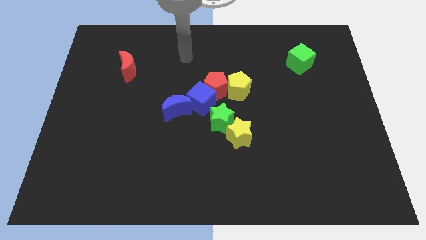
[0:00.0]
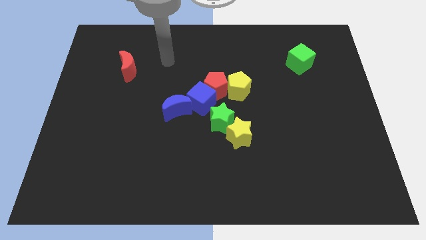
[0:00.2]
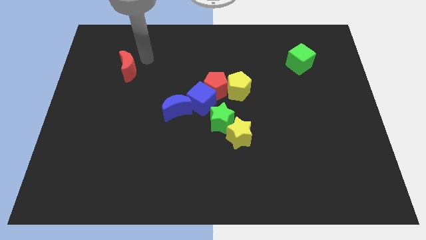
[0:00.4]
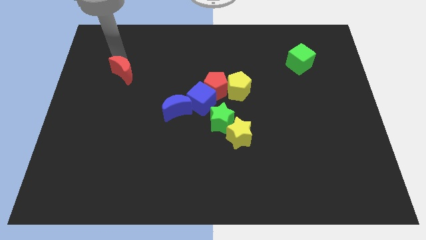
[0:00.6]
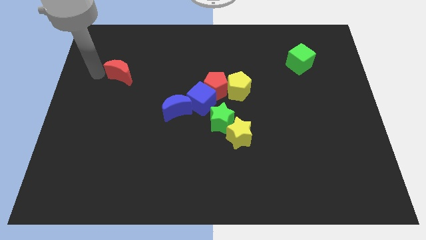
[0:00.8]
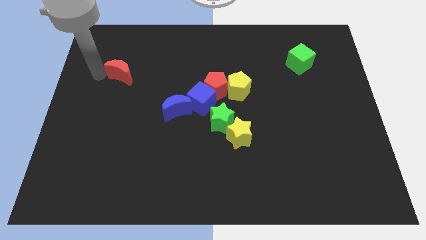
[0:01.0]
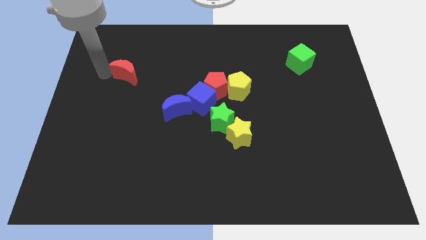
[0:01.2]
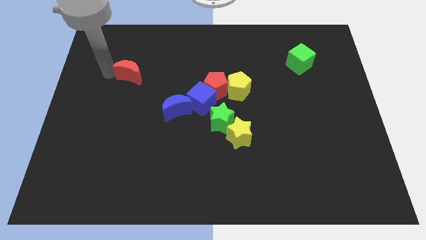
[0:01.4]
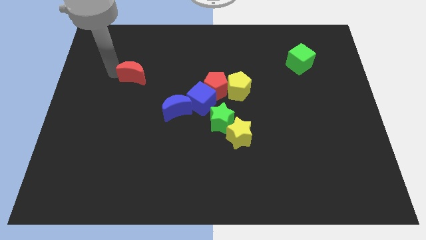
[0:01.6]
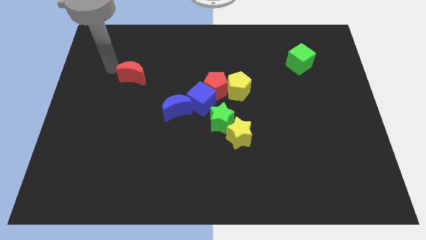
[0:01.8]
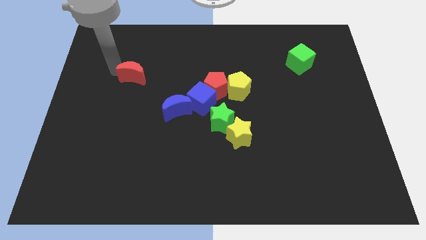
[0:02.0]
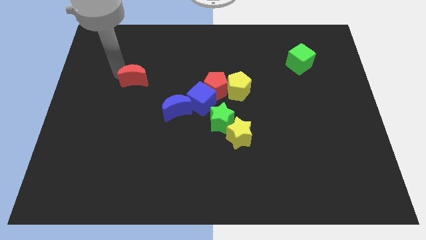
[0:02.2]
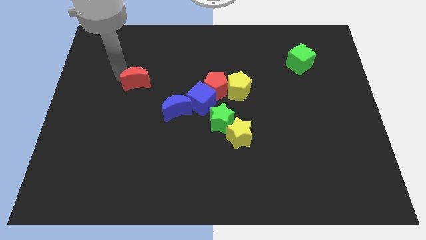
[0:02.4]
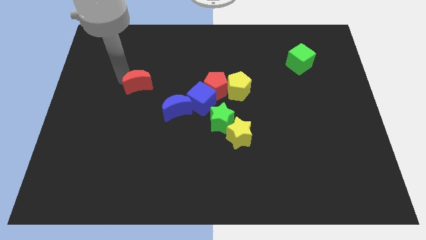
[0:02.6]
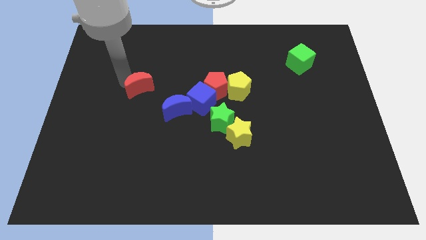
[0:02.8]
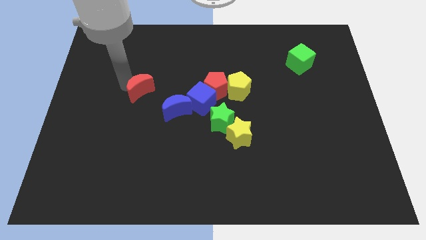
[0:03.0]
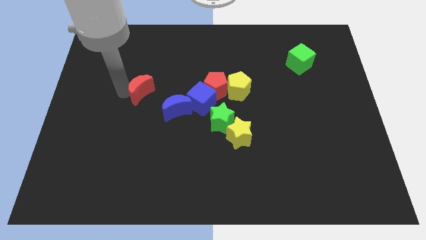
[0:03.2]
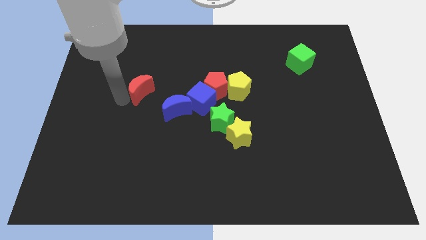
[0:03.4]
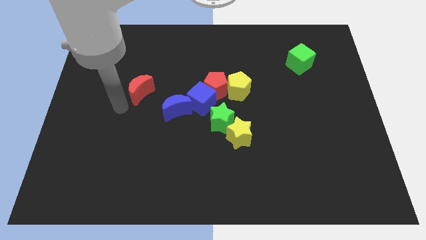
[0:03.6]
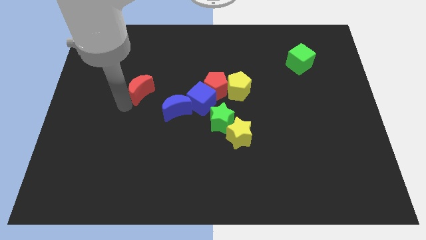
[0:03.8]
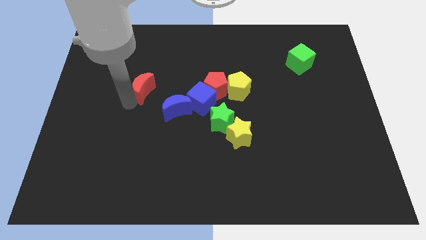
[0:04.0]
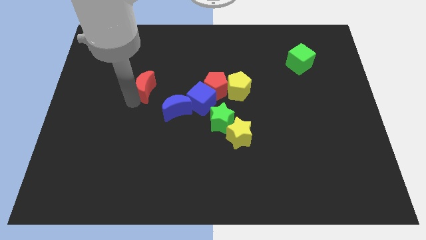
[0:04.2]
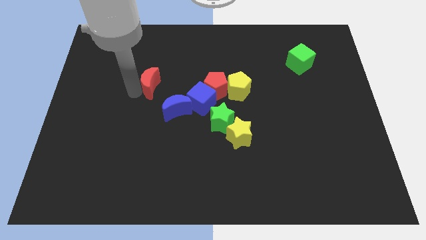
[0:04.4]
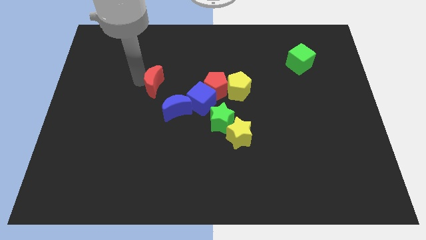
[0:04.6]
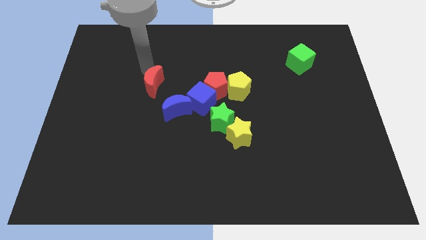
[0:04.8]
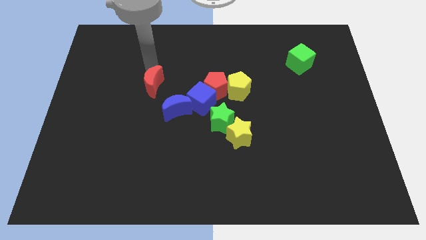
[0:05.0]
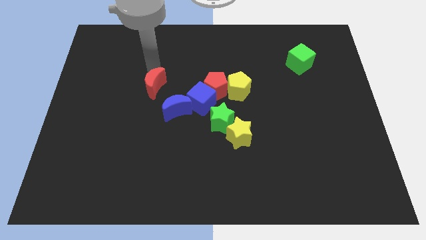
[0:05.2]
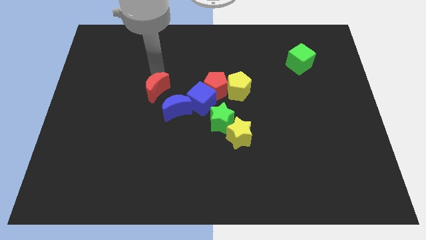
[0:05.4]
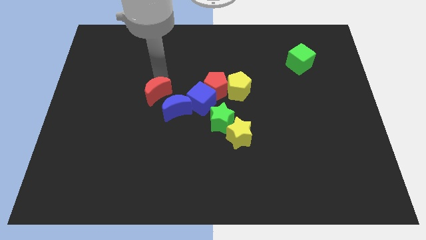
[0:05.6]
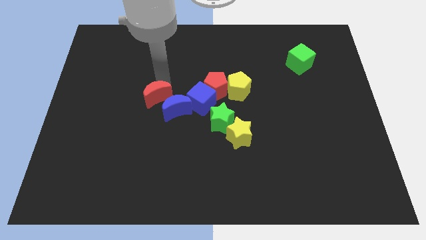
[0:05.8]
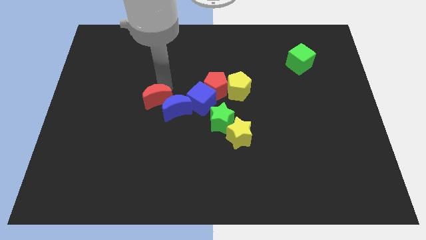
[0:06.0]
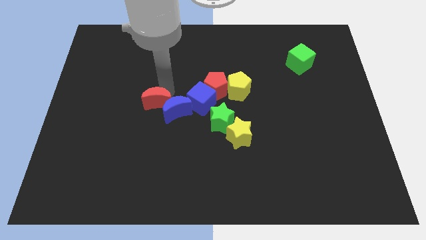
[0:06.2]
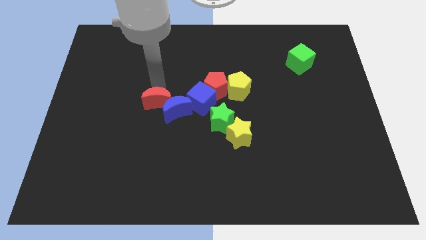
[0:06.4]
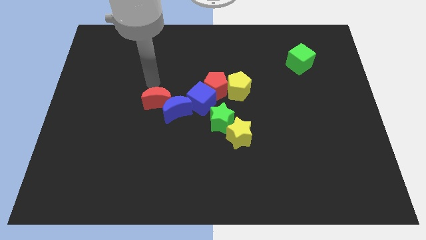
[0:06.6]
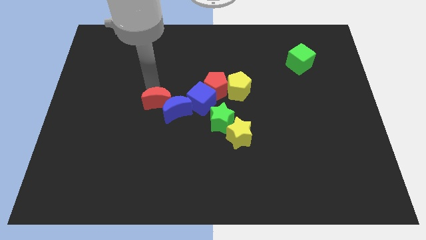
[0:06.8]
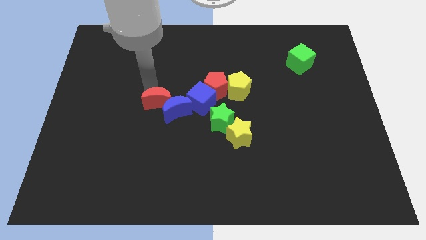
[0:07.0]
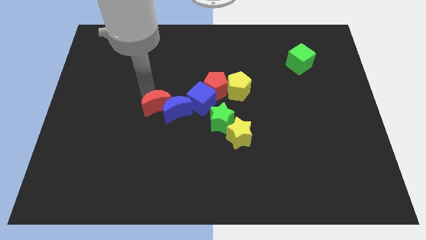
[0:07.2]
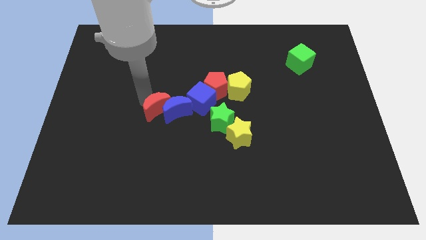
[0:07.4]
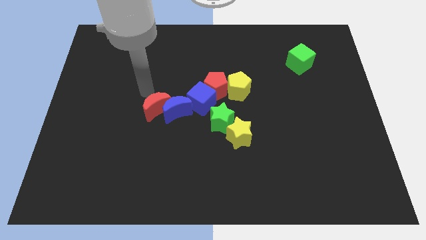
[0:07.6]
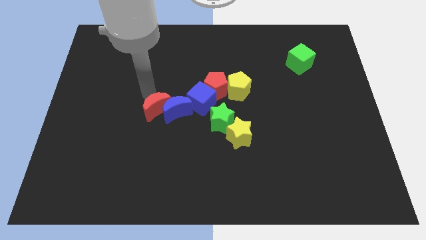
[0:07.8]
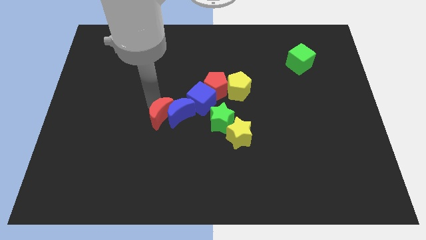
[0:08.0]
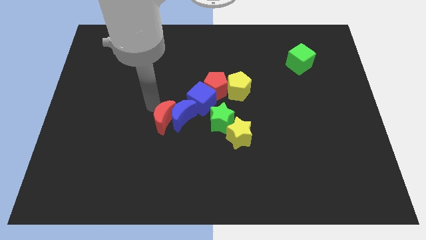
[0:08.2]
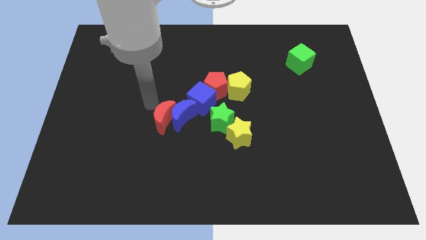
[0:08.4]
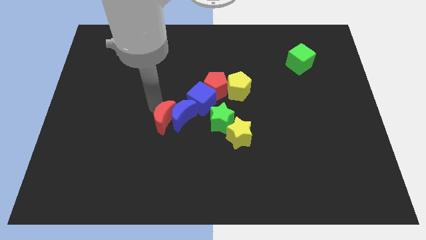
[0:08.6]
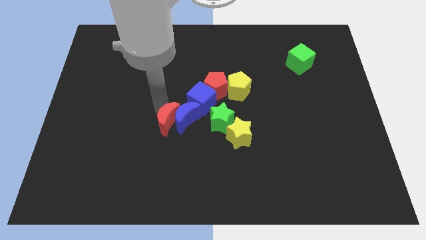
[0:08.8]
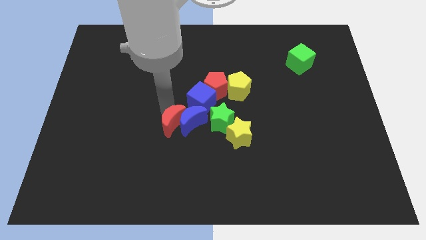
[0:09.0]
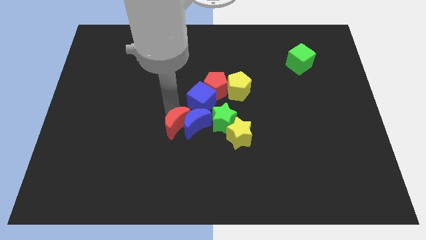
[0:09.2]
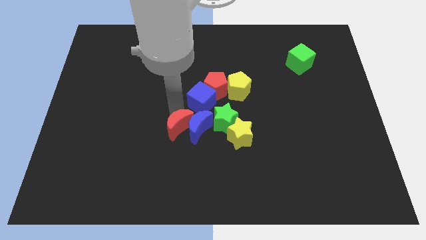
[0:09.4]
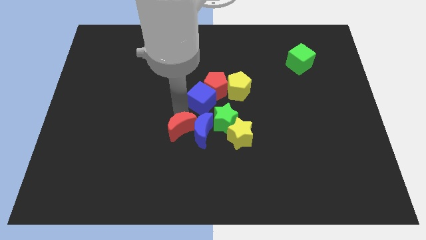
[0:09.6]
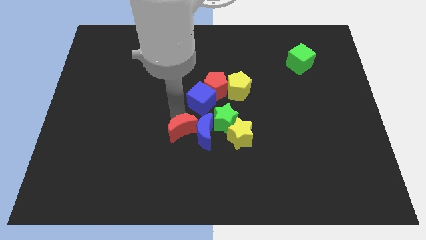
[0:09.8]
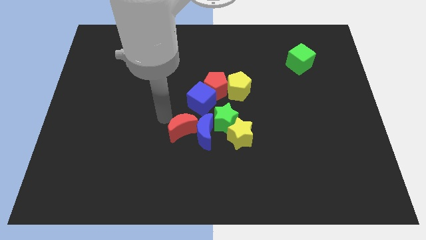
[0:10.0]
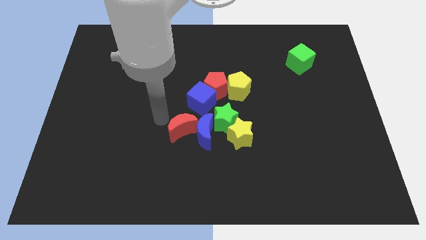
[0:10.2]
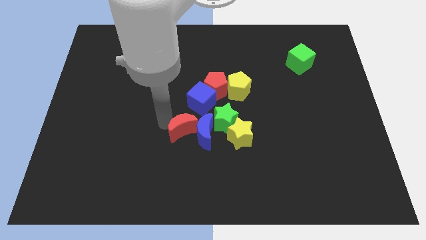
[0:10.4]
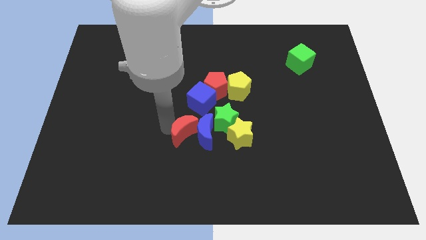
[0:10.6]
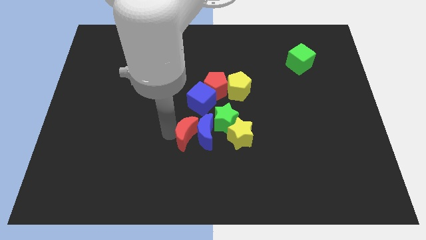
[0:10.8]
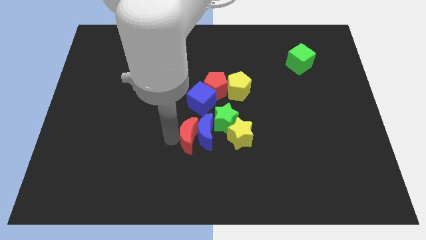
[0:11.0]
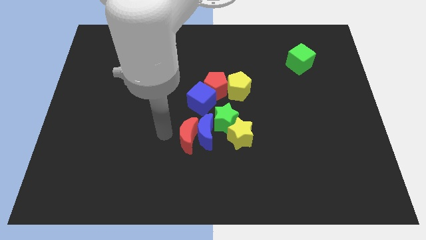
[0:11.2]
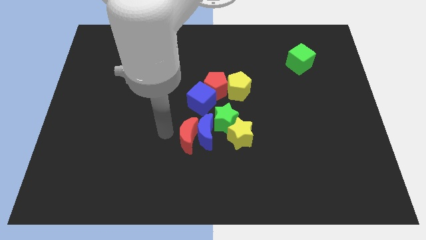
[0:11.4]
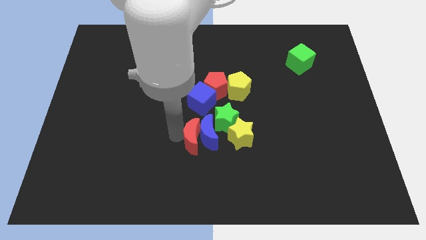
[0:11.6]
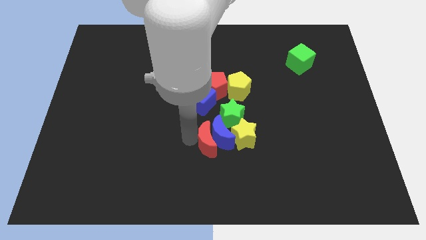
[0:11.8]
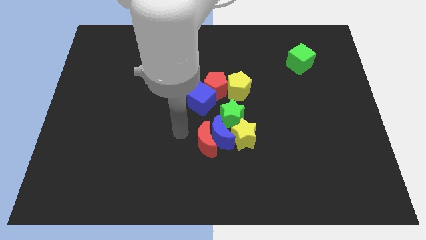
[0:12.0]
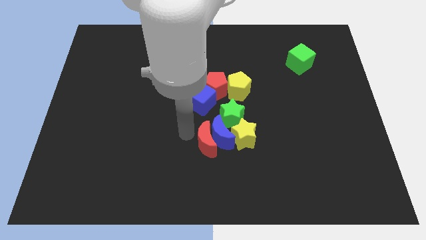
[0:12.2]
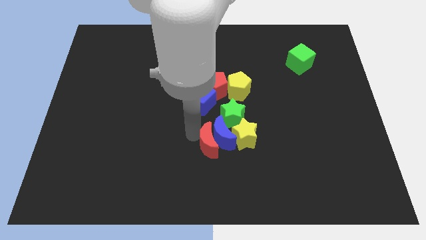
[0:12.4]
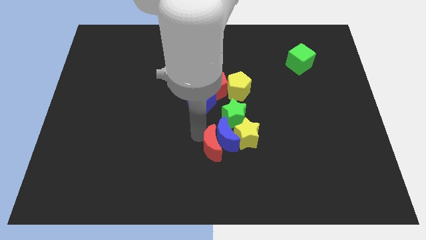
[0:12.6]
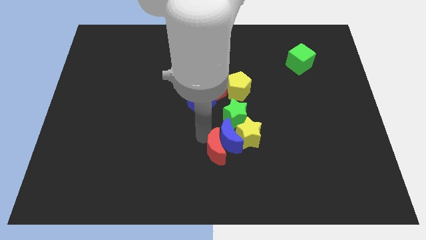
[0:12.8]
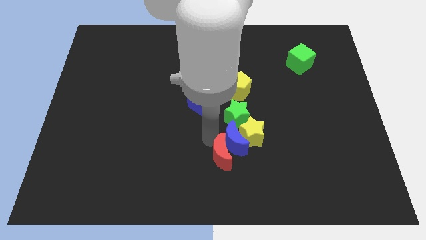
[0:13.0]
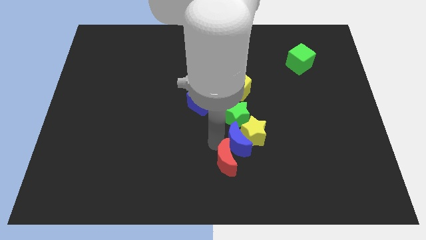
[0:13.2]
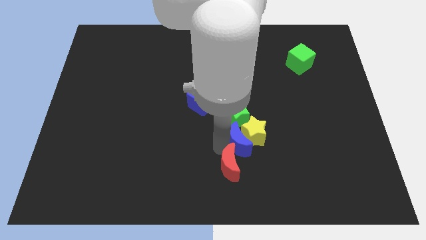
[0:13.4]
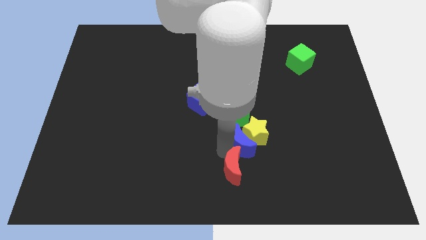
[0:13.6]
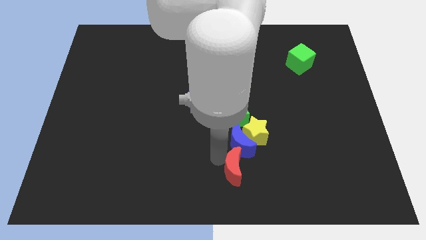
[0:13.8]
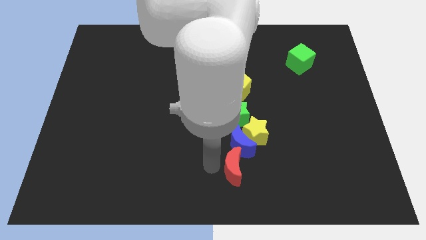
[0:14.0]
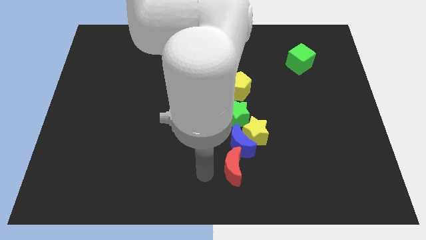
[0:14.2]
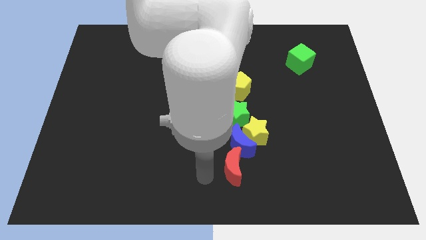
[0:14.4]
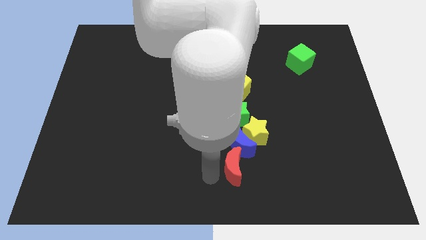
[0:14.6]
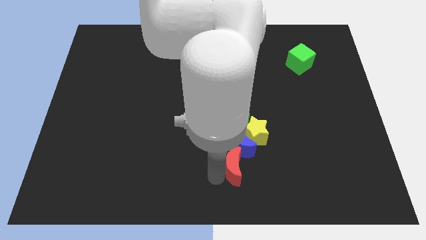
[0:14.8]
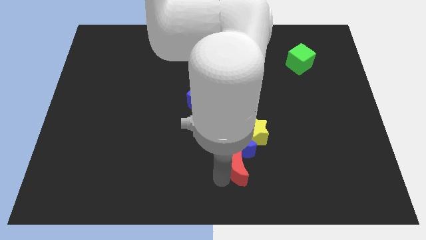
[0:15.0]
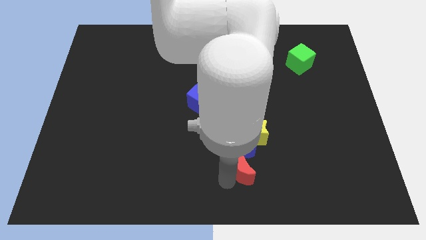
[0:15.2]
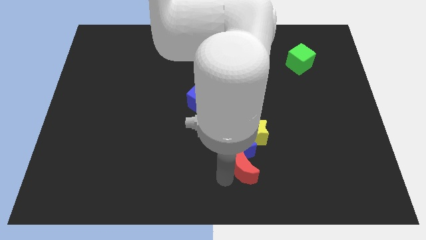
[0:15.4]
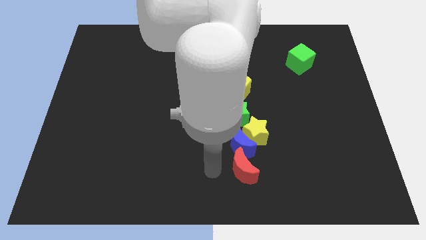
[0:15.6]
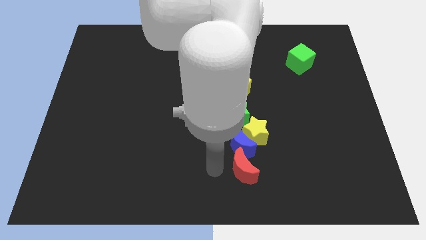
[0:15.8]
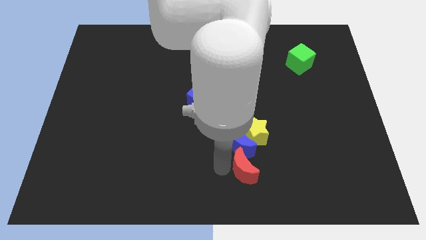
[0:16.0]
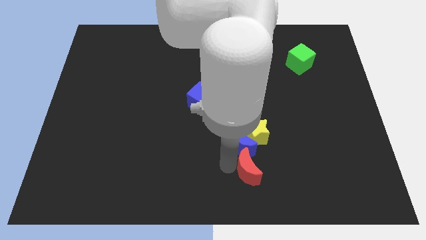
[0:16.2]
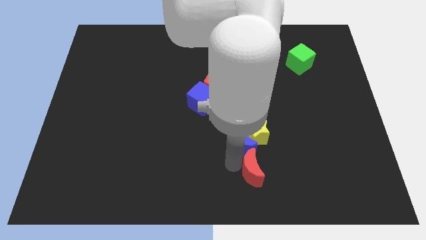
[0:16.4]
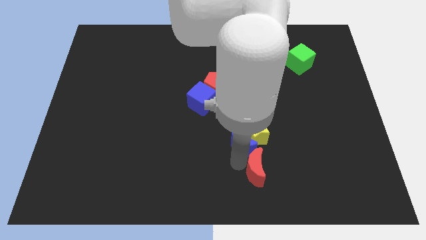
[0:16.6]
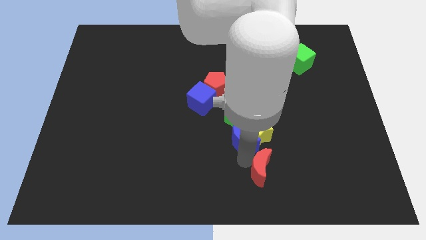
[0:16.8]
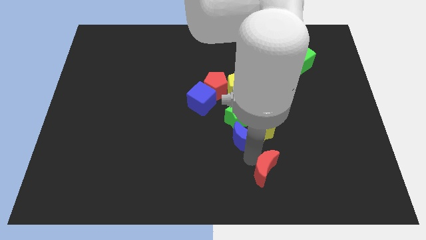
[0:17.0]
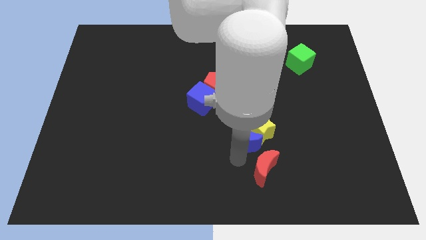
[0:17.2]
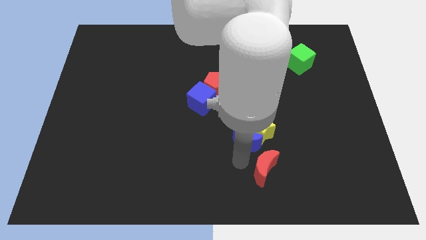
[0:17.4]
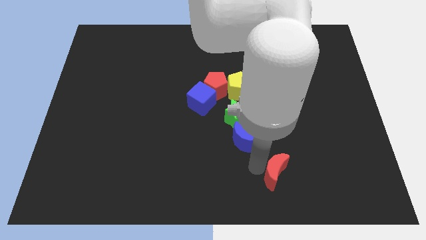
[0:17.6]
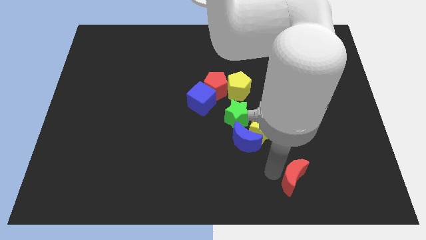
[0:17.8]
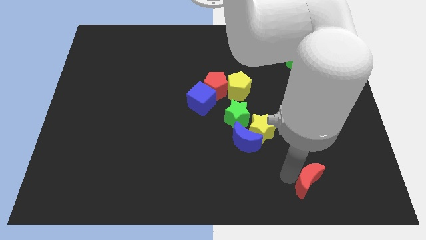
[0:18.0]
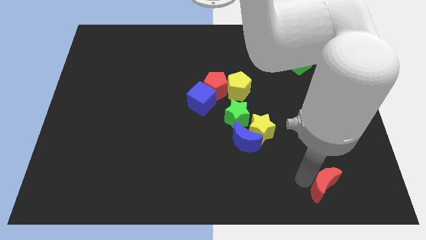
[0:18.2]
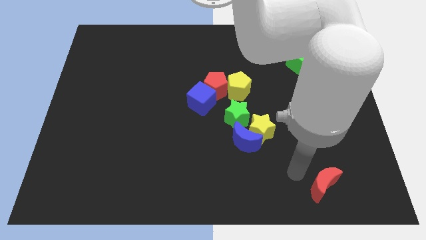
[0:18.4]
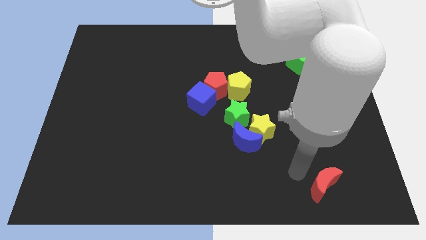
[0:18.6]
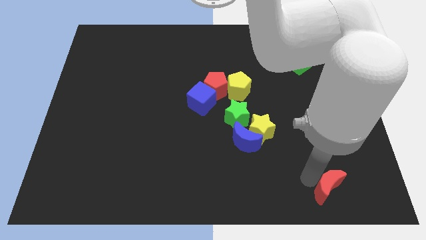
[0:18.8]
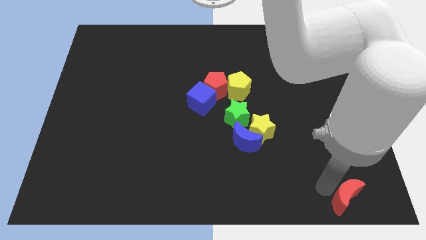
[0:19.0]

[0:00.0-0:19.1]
push the red moon to the bottom right of the board
